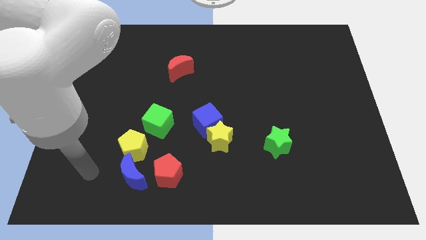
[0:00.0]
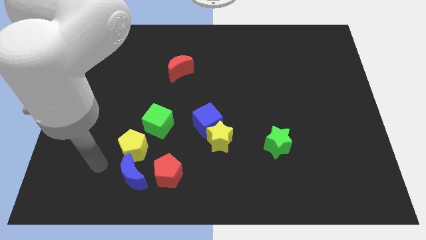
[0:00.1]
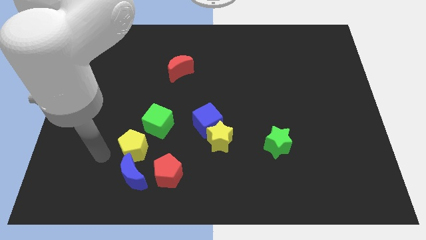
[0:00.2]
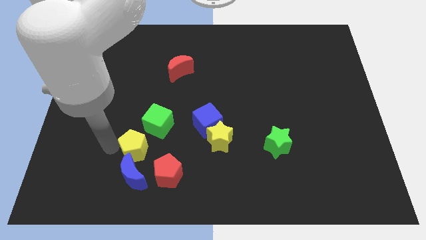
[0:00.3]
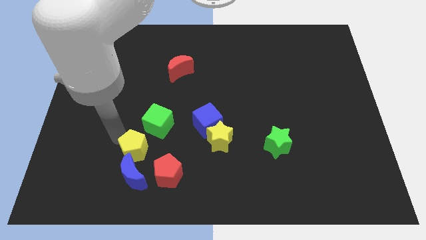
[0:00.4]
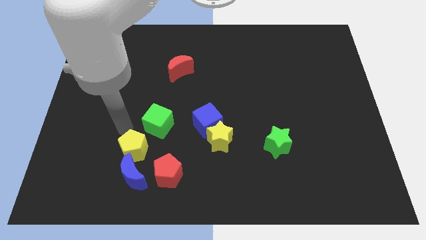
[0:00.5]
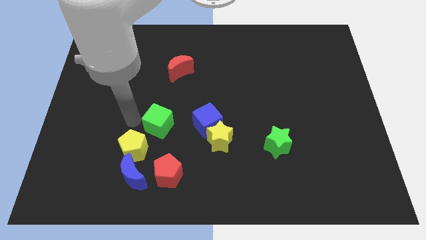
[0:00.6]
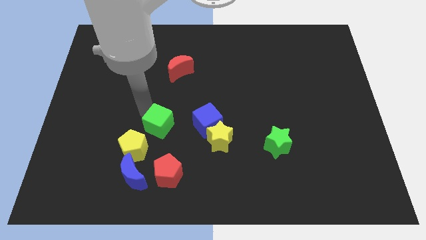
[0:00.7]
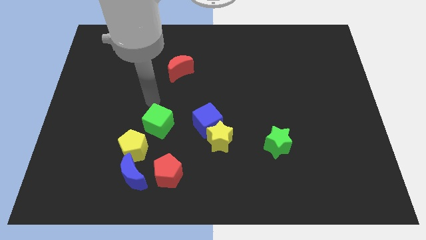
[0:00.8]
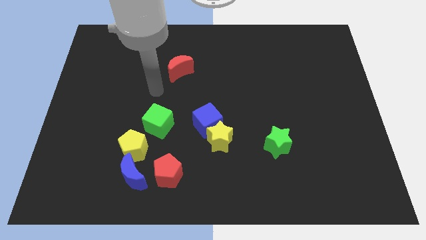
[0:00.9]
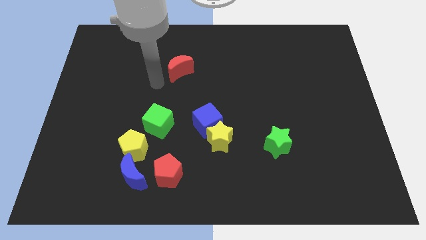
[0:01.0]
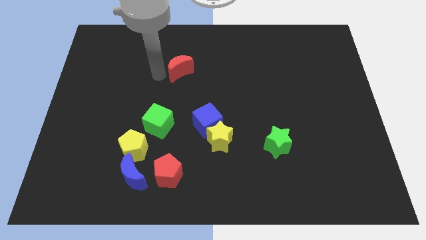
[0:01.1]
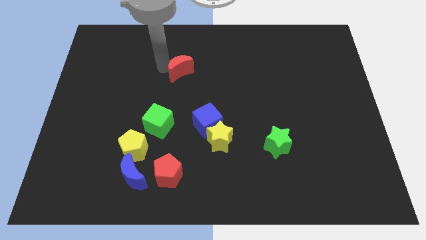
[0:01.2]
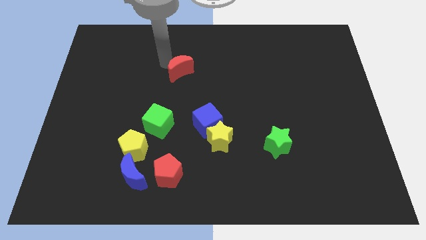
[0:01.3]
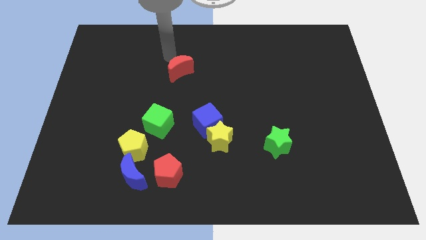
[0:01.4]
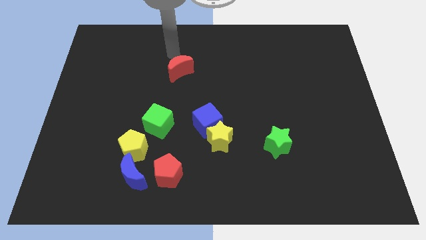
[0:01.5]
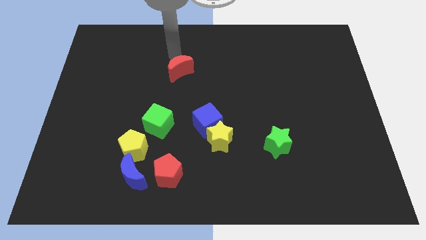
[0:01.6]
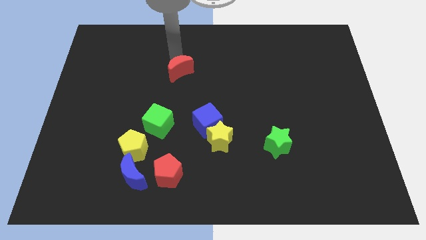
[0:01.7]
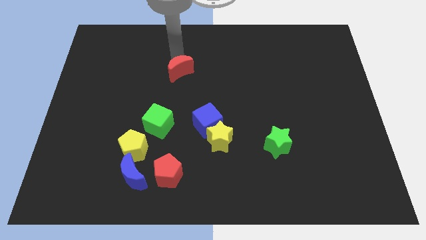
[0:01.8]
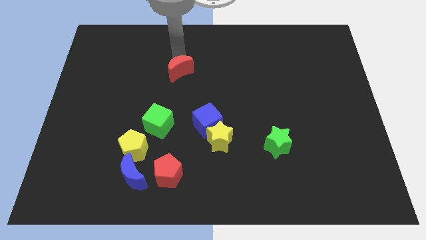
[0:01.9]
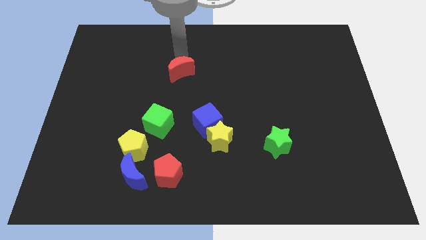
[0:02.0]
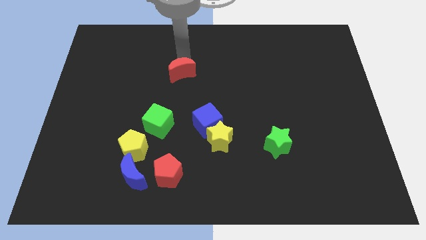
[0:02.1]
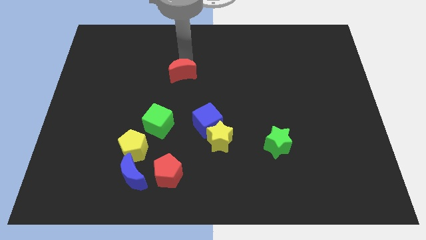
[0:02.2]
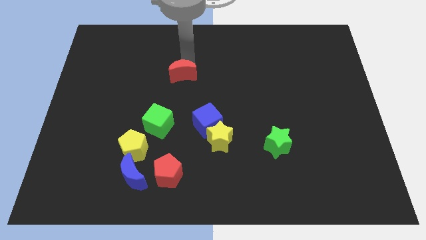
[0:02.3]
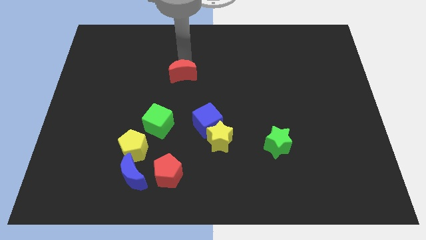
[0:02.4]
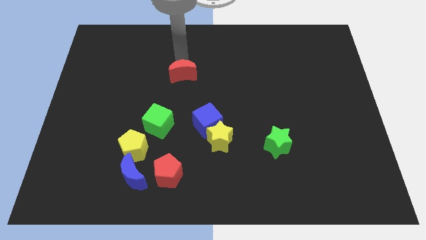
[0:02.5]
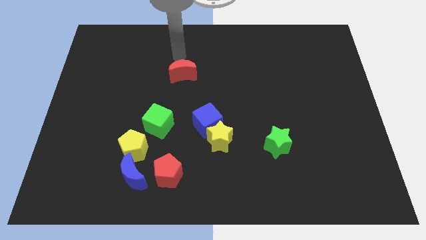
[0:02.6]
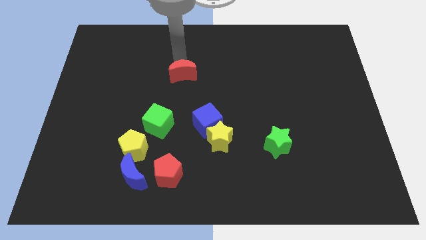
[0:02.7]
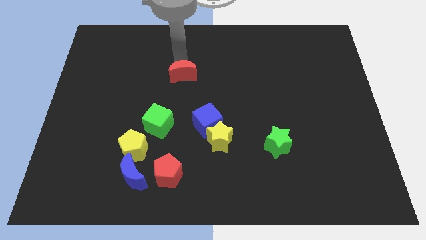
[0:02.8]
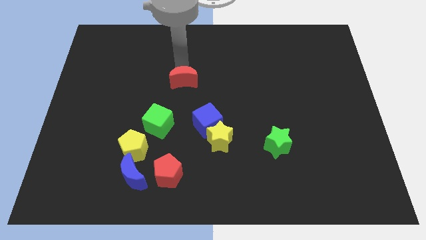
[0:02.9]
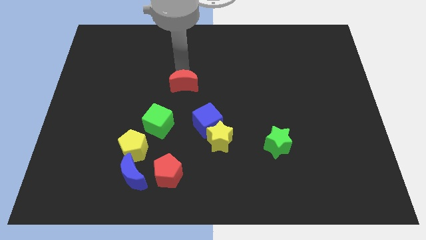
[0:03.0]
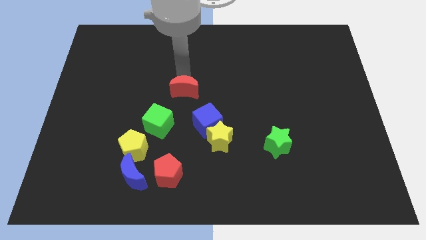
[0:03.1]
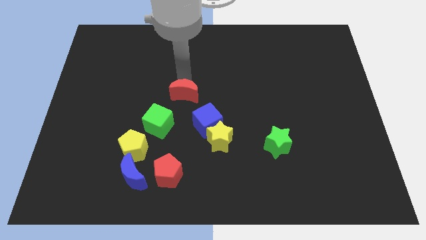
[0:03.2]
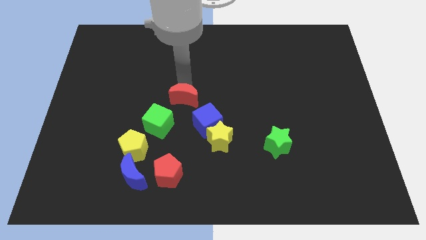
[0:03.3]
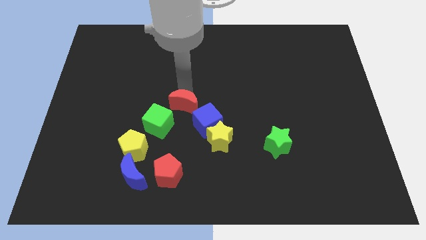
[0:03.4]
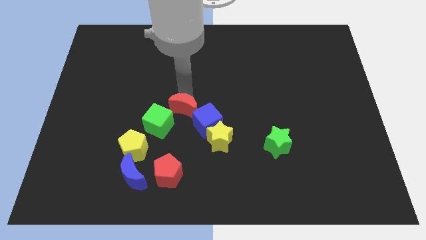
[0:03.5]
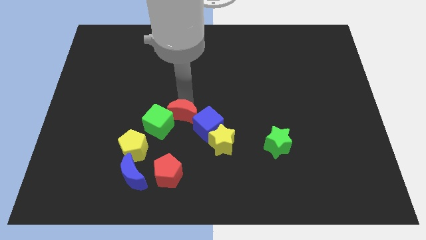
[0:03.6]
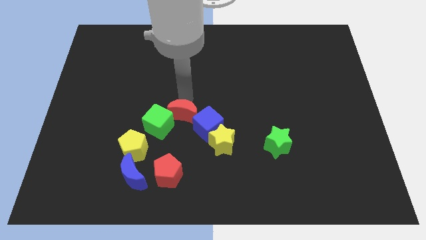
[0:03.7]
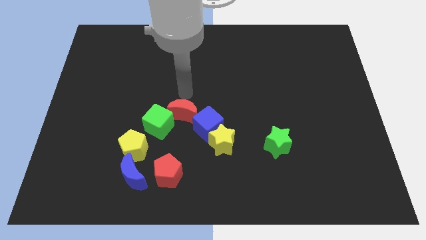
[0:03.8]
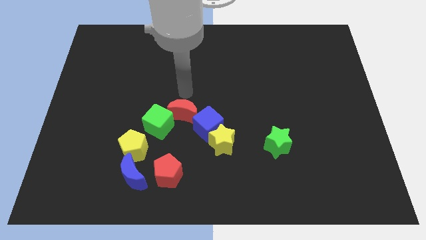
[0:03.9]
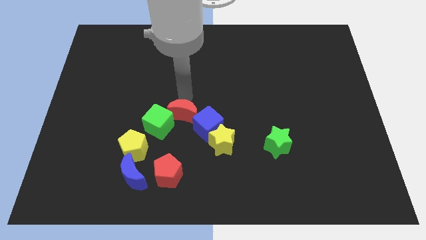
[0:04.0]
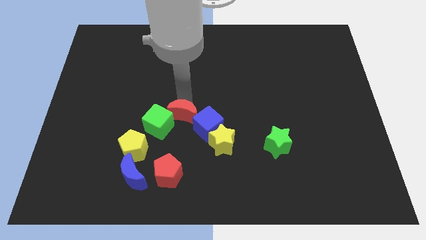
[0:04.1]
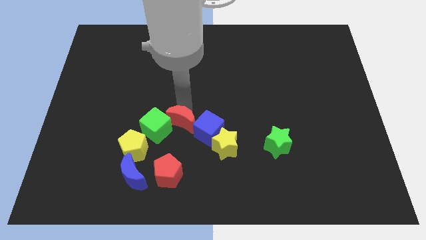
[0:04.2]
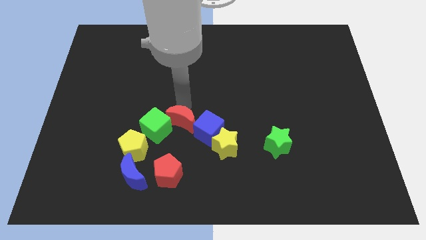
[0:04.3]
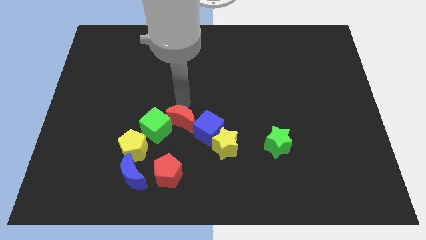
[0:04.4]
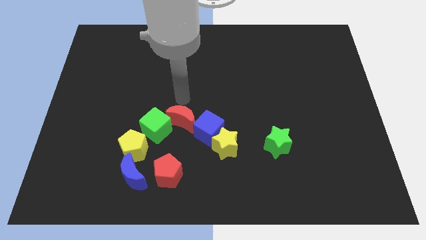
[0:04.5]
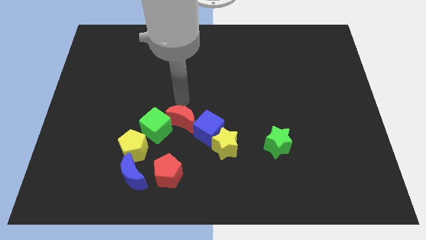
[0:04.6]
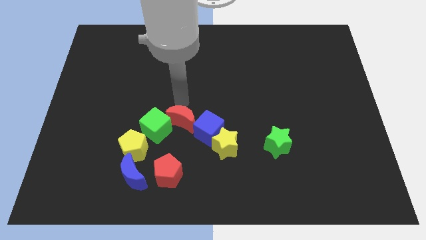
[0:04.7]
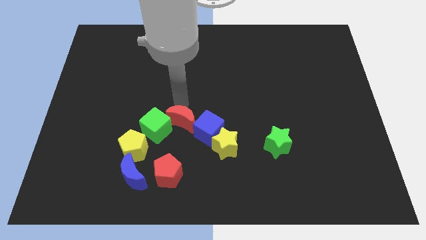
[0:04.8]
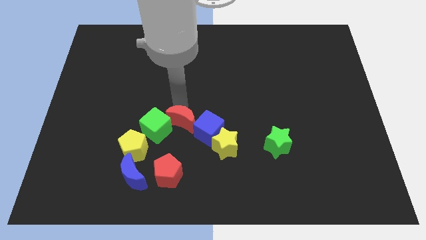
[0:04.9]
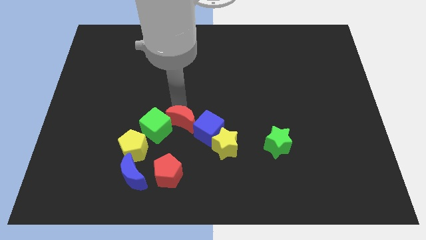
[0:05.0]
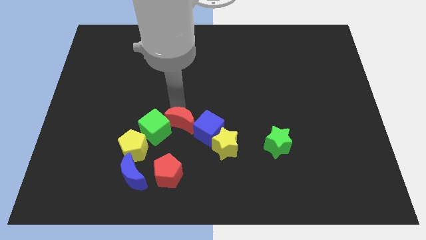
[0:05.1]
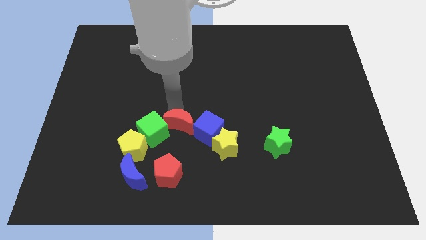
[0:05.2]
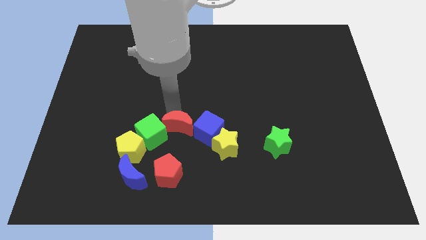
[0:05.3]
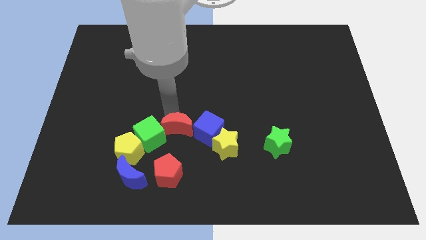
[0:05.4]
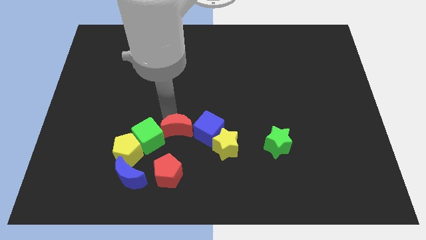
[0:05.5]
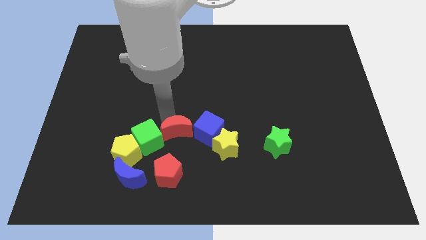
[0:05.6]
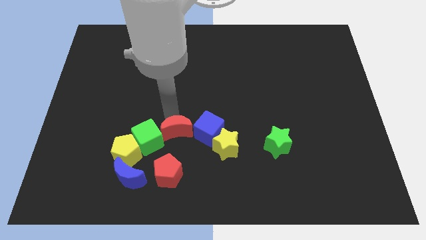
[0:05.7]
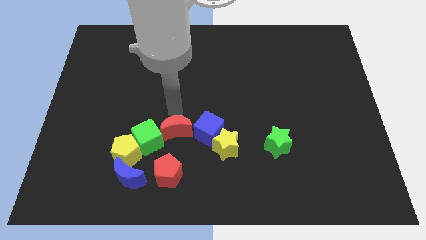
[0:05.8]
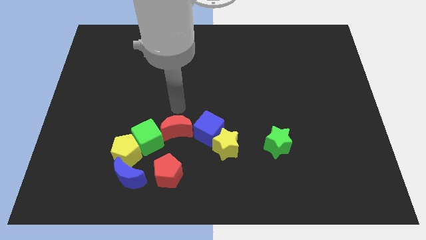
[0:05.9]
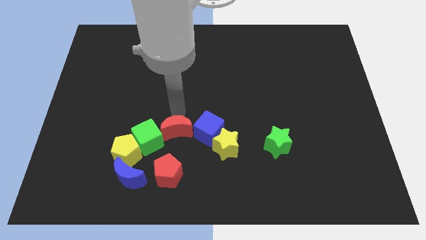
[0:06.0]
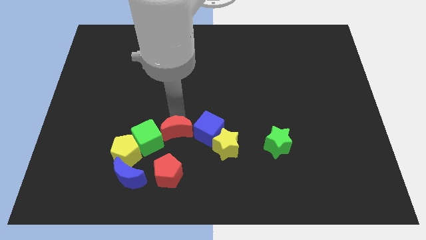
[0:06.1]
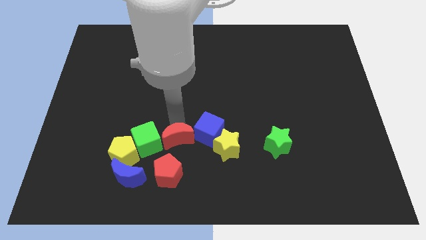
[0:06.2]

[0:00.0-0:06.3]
put the red moon just right of the yellow pentagon
